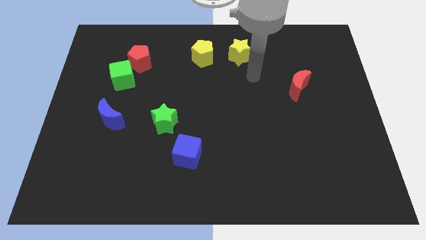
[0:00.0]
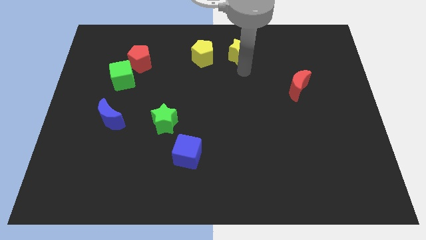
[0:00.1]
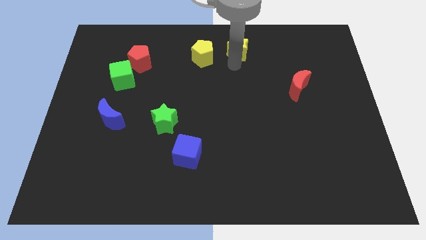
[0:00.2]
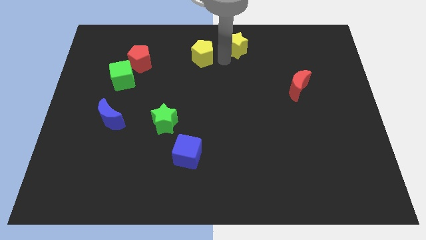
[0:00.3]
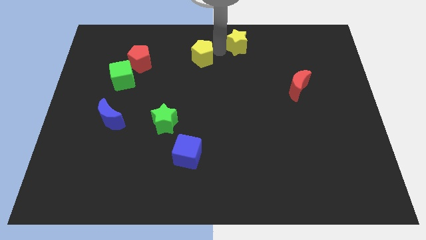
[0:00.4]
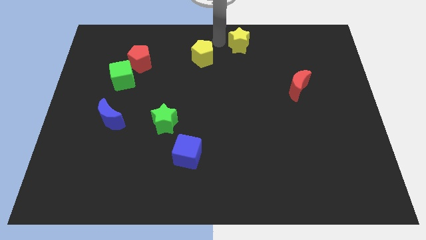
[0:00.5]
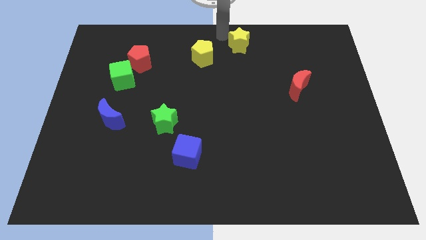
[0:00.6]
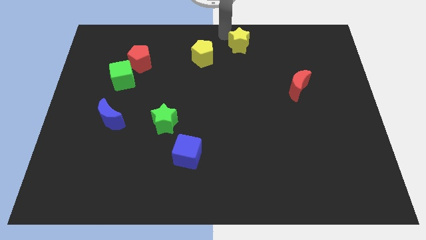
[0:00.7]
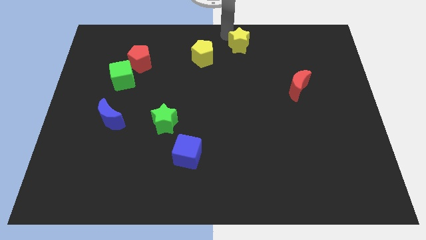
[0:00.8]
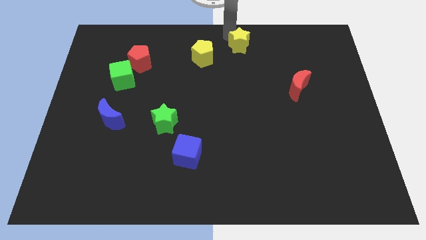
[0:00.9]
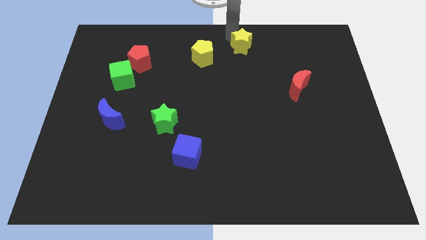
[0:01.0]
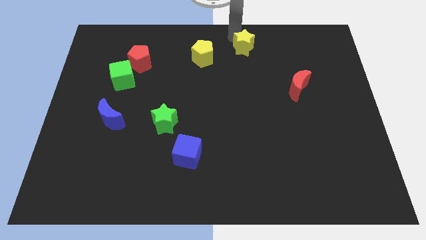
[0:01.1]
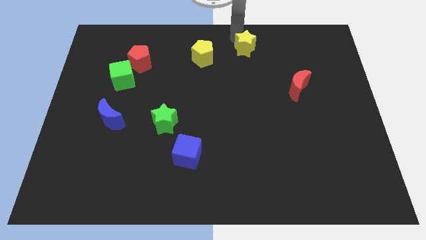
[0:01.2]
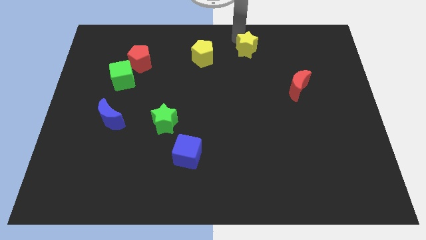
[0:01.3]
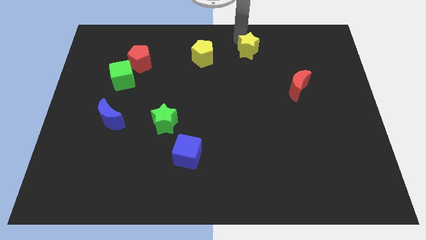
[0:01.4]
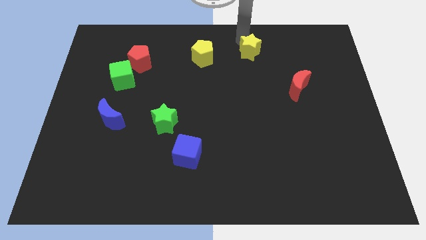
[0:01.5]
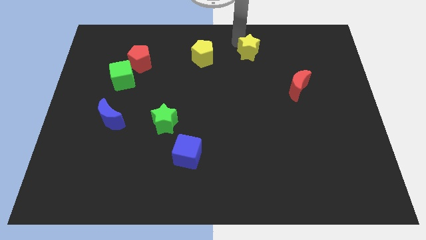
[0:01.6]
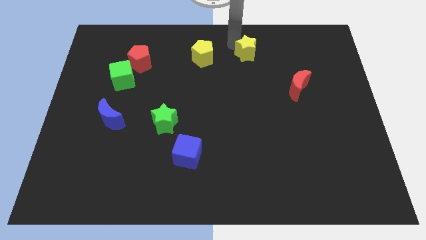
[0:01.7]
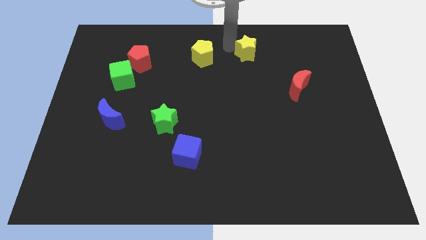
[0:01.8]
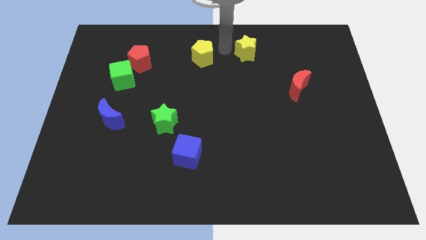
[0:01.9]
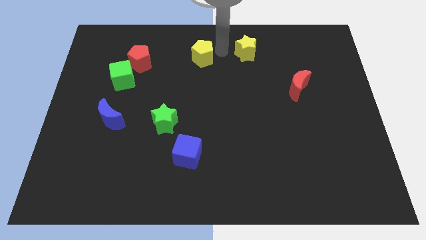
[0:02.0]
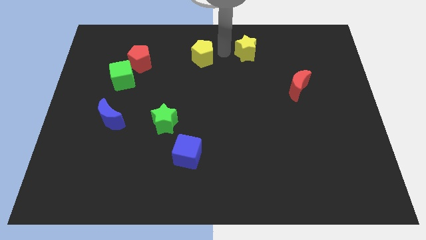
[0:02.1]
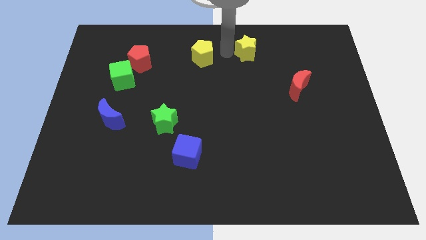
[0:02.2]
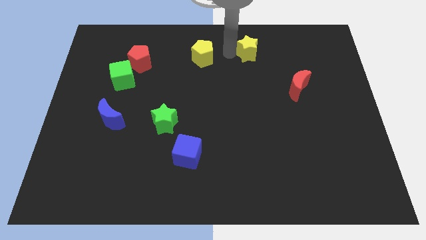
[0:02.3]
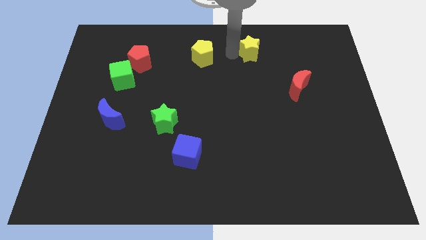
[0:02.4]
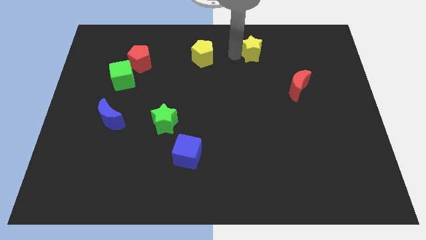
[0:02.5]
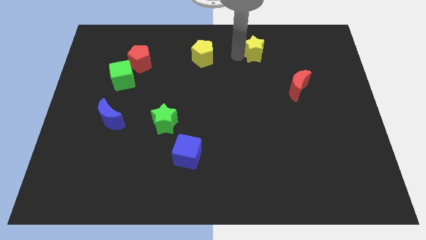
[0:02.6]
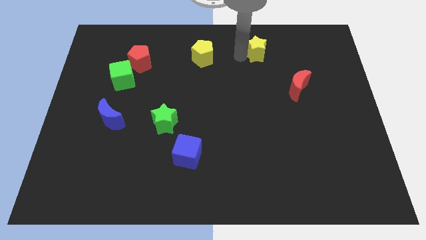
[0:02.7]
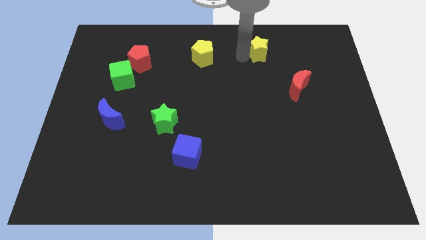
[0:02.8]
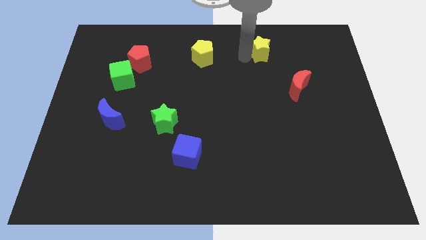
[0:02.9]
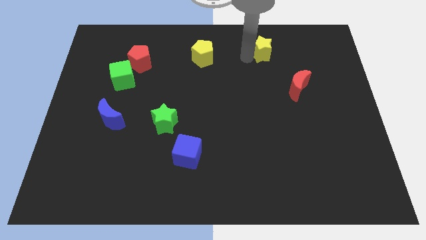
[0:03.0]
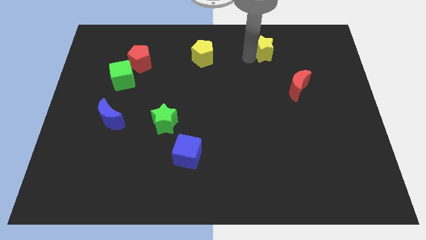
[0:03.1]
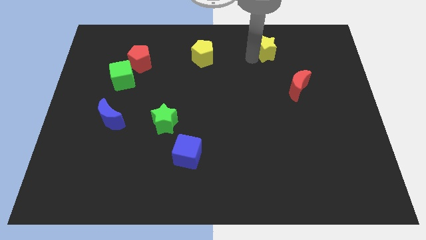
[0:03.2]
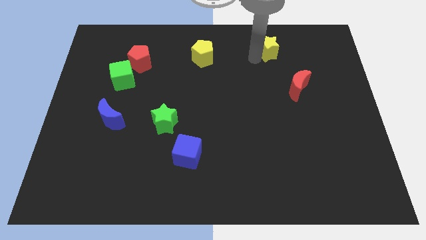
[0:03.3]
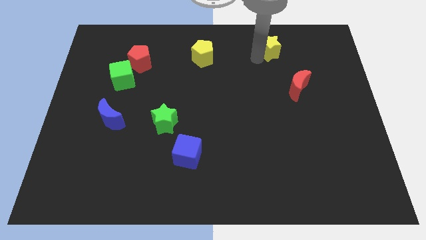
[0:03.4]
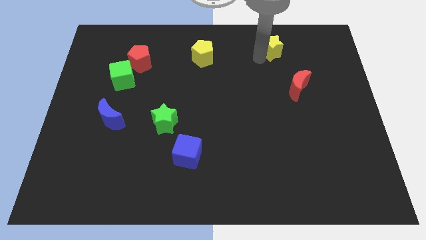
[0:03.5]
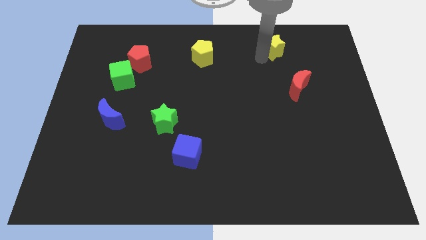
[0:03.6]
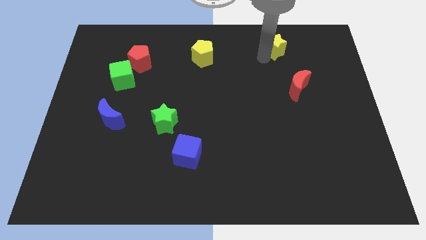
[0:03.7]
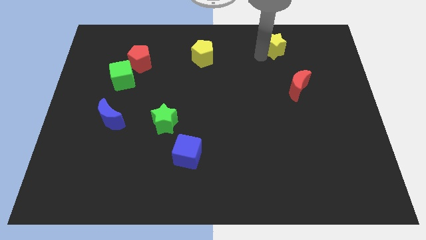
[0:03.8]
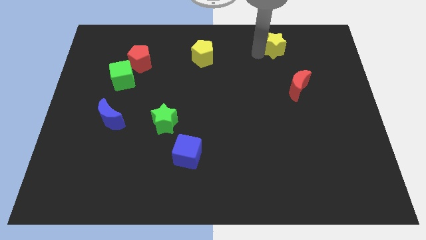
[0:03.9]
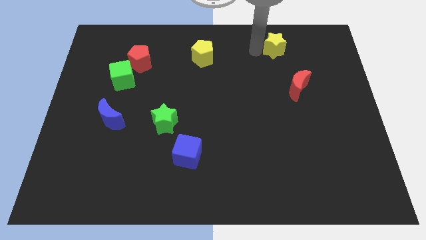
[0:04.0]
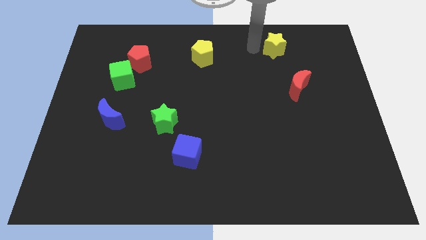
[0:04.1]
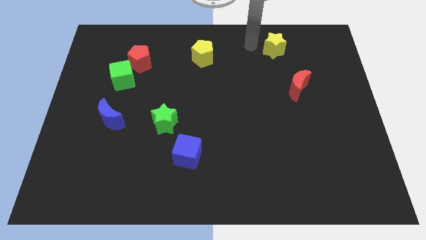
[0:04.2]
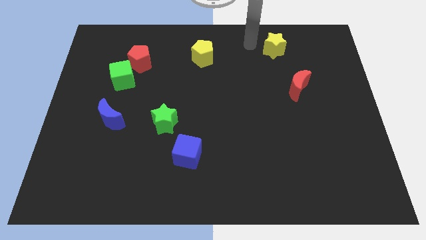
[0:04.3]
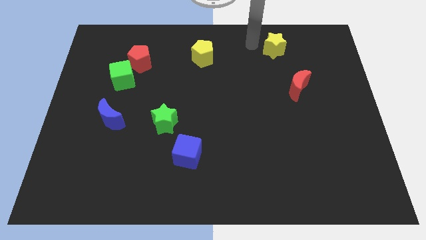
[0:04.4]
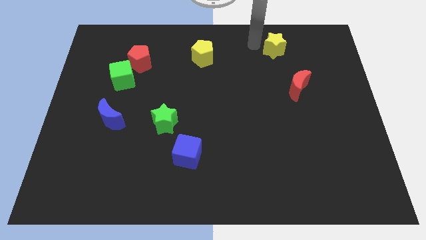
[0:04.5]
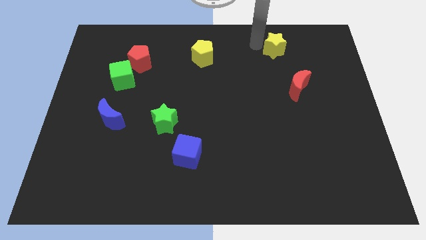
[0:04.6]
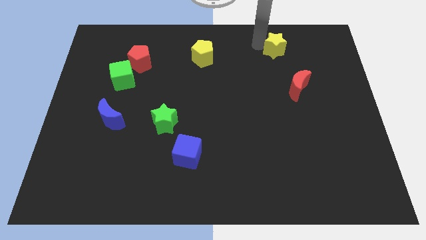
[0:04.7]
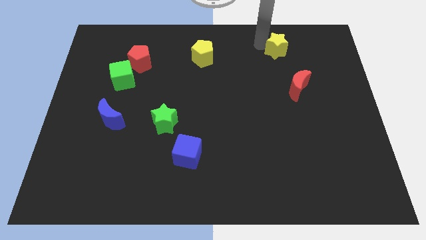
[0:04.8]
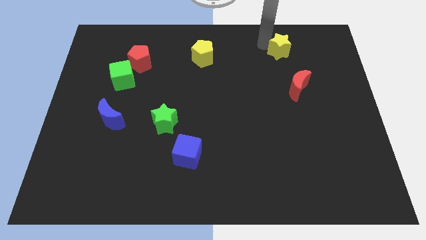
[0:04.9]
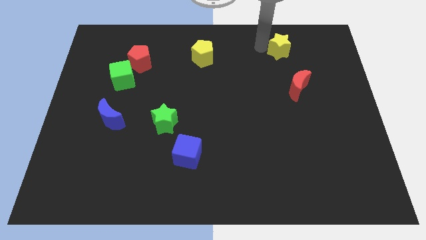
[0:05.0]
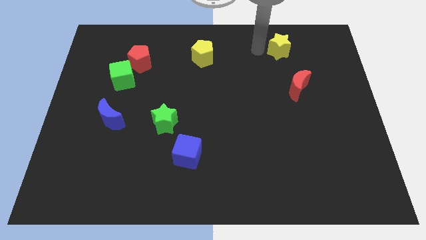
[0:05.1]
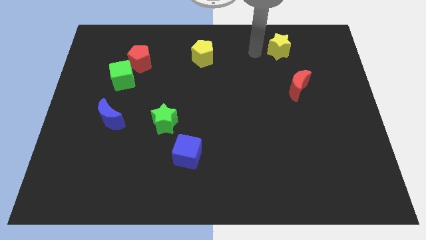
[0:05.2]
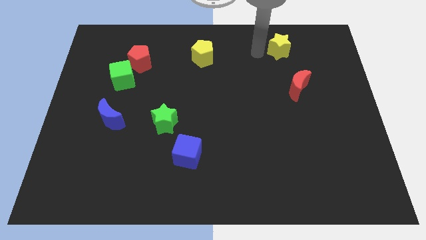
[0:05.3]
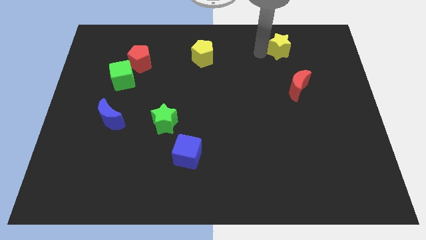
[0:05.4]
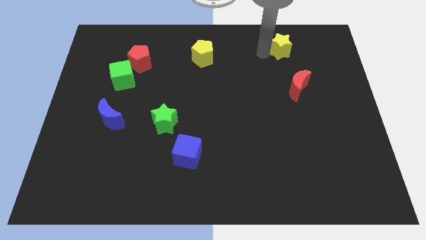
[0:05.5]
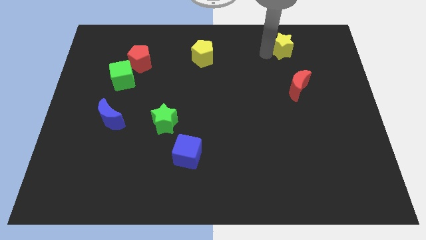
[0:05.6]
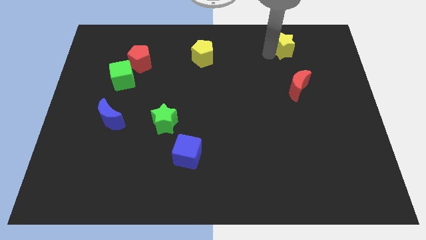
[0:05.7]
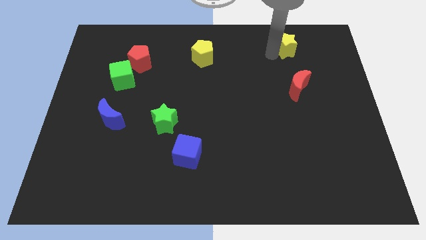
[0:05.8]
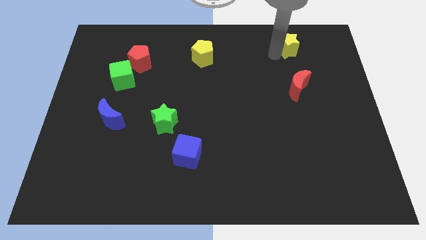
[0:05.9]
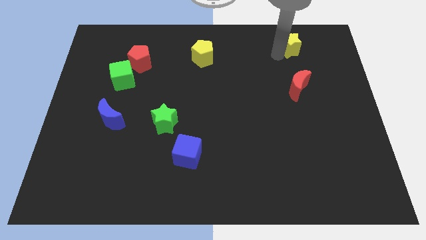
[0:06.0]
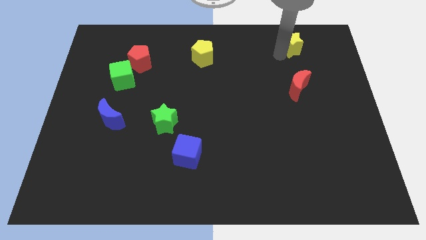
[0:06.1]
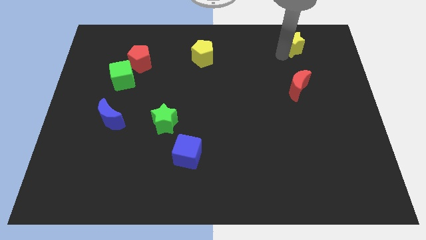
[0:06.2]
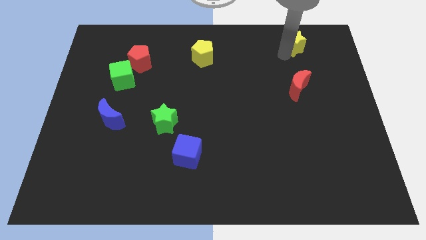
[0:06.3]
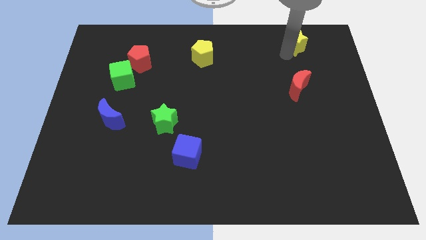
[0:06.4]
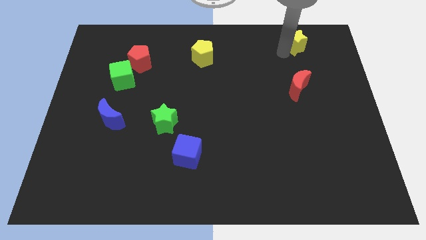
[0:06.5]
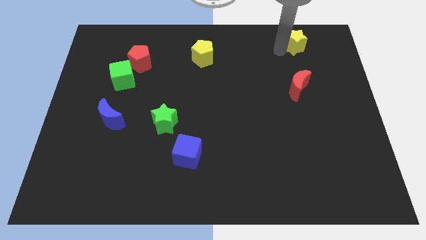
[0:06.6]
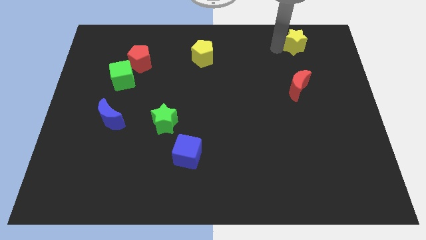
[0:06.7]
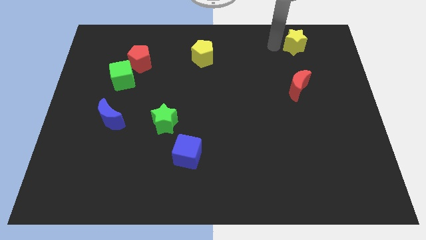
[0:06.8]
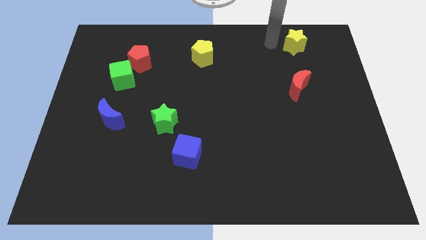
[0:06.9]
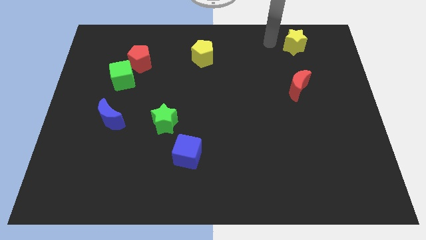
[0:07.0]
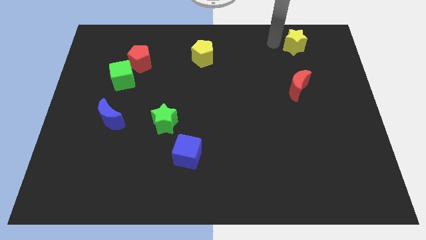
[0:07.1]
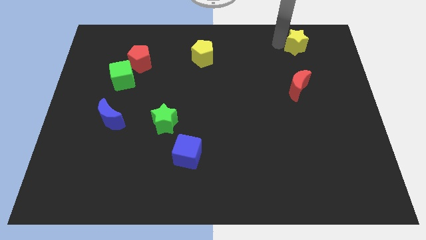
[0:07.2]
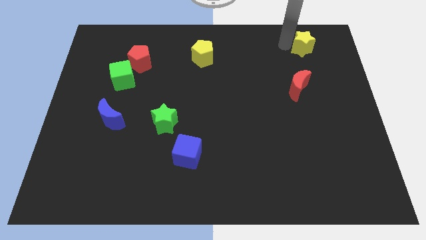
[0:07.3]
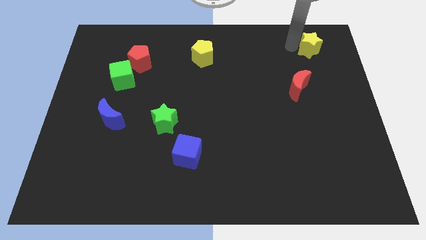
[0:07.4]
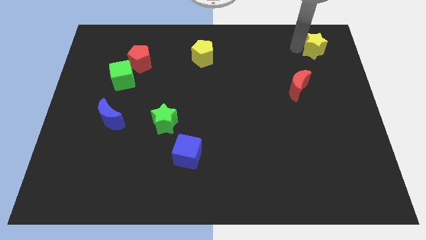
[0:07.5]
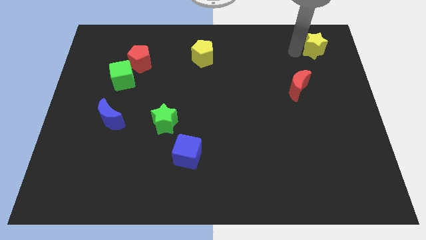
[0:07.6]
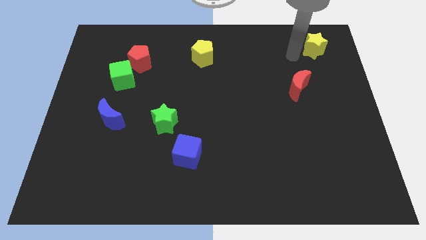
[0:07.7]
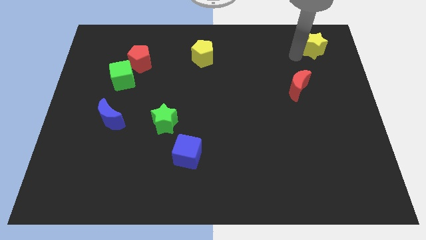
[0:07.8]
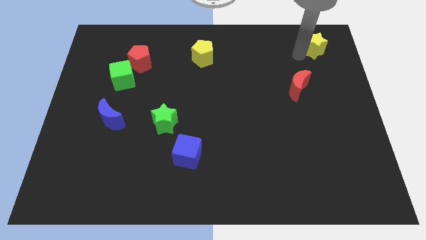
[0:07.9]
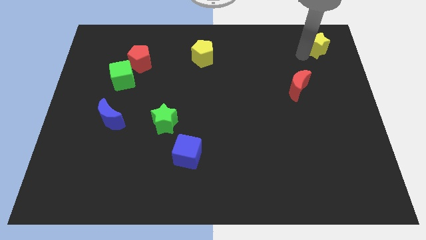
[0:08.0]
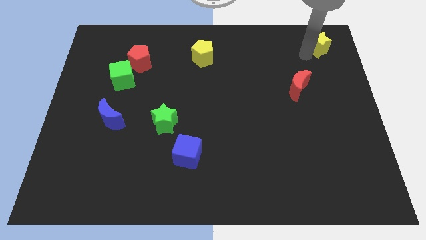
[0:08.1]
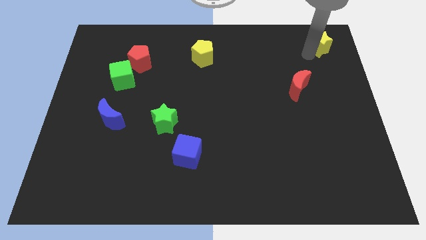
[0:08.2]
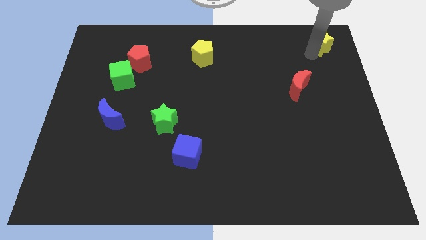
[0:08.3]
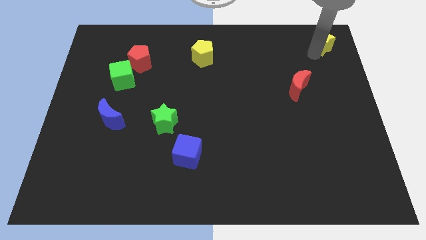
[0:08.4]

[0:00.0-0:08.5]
move the yellow star to the upper right corner
